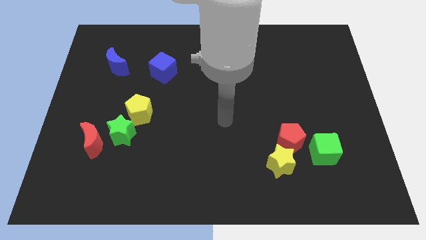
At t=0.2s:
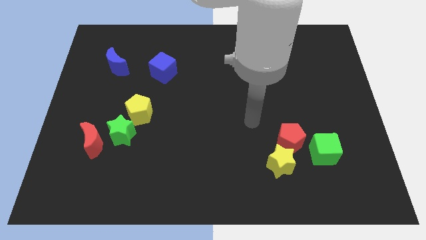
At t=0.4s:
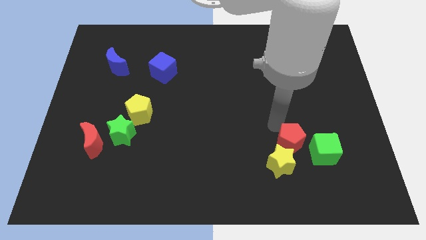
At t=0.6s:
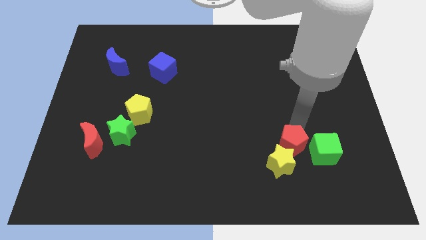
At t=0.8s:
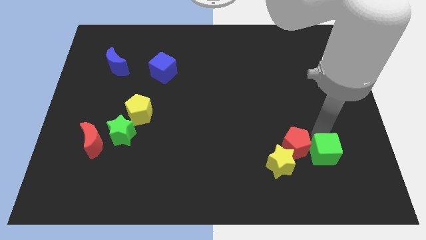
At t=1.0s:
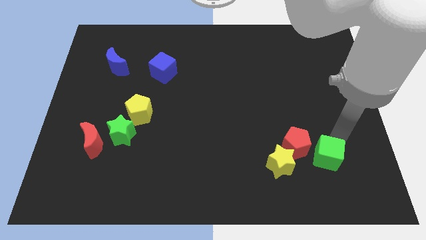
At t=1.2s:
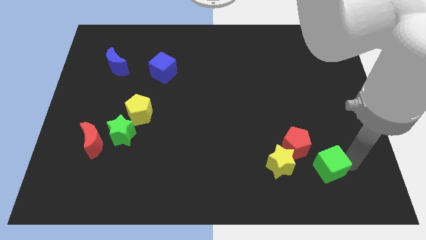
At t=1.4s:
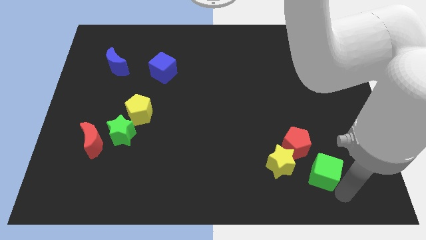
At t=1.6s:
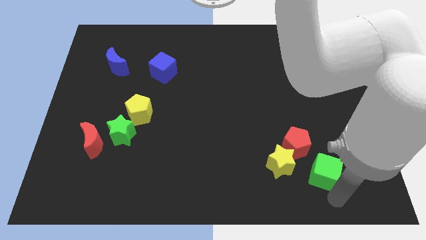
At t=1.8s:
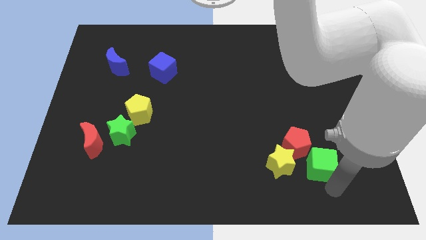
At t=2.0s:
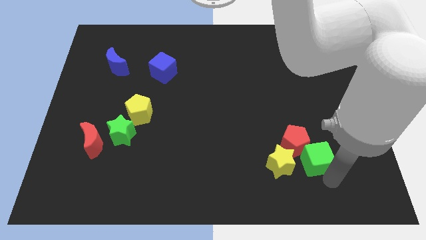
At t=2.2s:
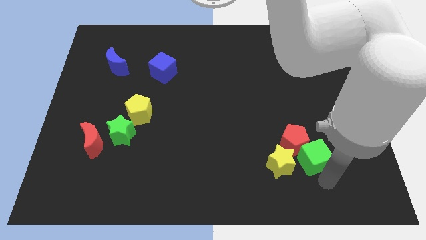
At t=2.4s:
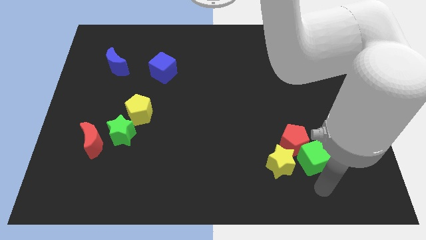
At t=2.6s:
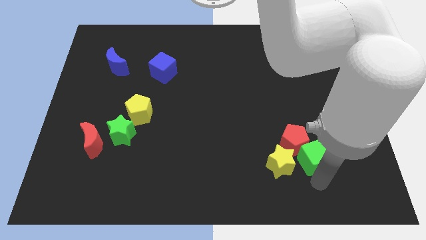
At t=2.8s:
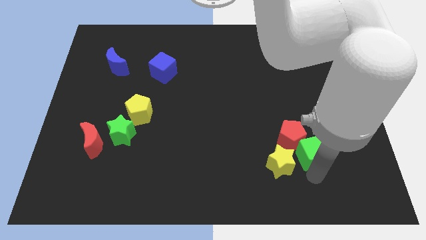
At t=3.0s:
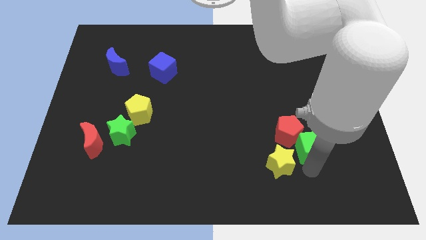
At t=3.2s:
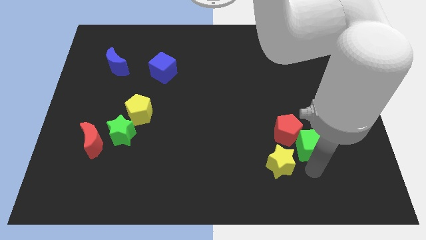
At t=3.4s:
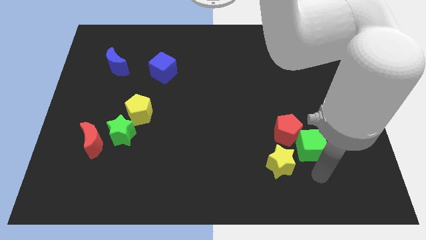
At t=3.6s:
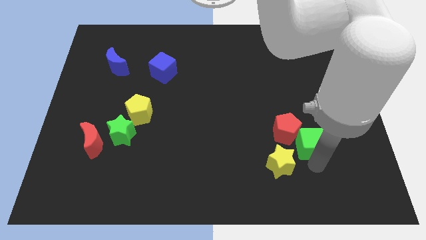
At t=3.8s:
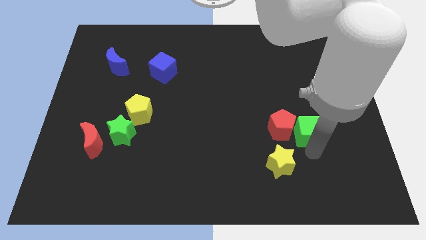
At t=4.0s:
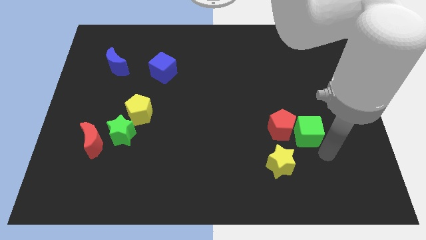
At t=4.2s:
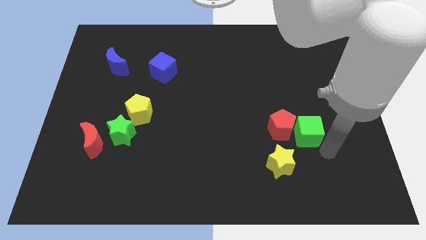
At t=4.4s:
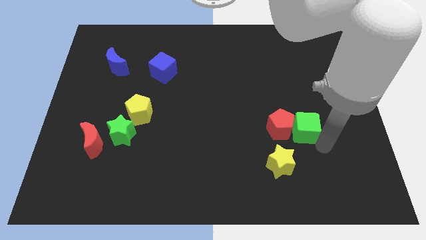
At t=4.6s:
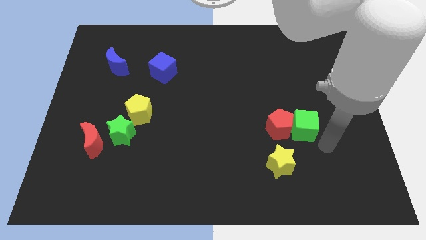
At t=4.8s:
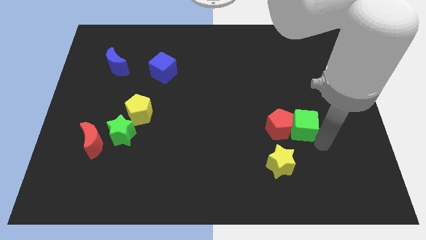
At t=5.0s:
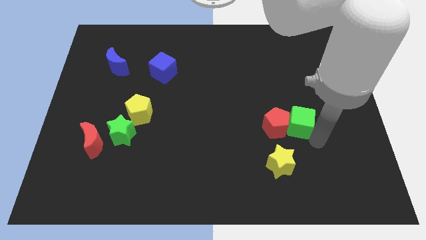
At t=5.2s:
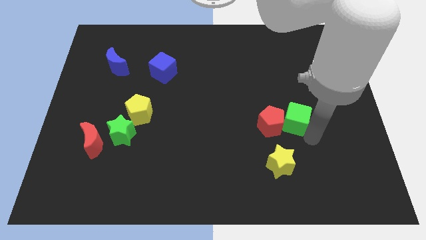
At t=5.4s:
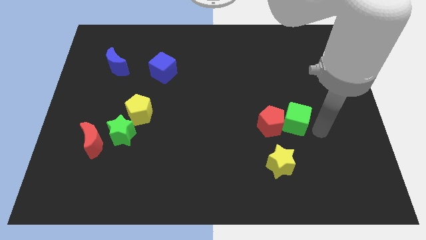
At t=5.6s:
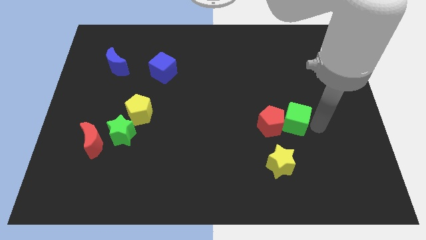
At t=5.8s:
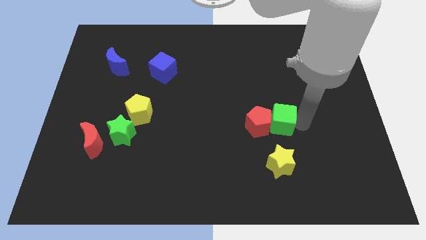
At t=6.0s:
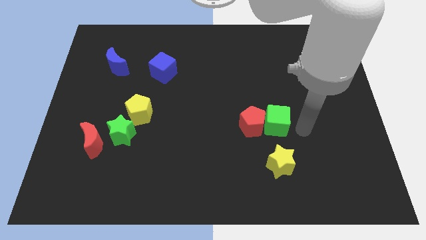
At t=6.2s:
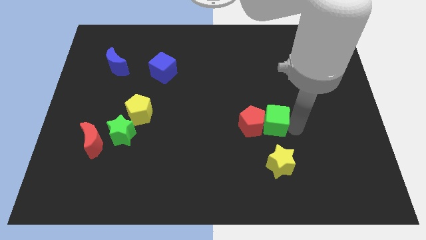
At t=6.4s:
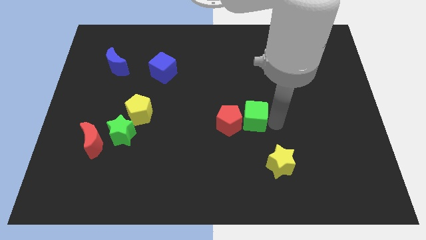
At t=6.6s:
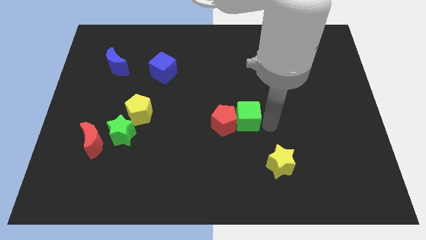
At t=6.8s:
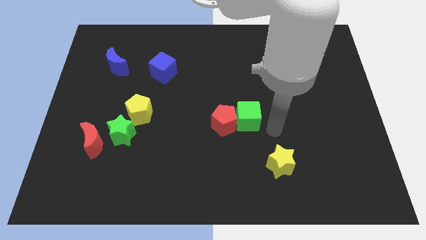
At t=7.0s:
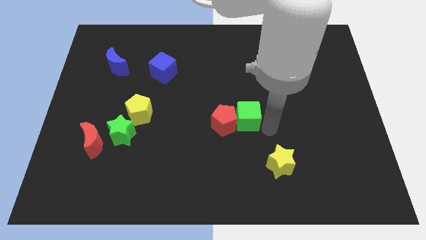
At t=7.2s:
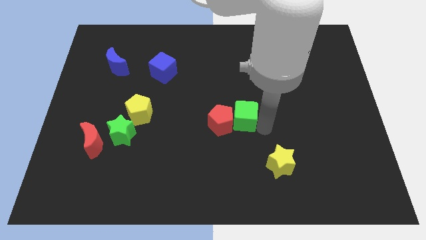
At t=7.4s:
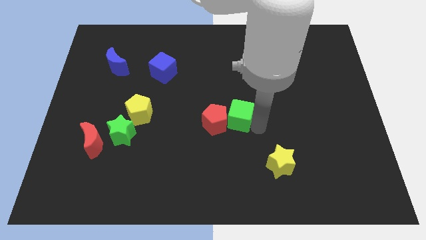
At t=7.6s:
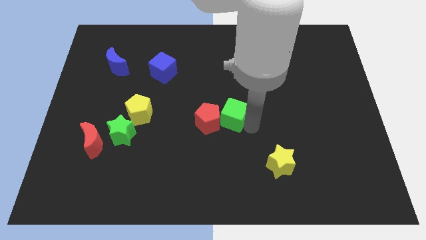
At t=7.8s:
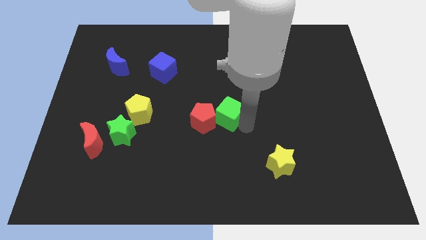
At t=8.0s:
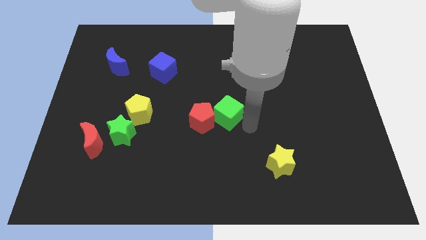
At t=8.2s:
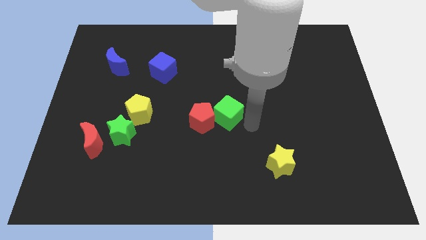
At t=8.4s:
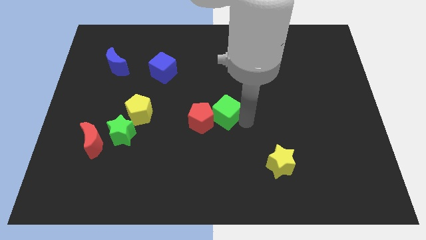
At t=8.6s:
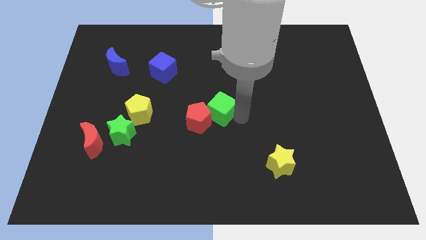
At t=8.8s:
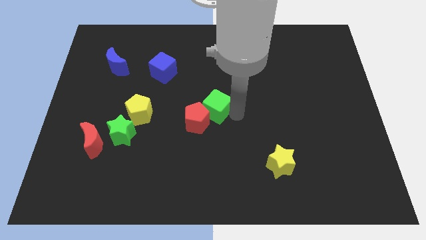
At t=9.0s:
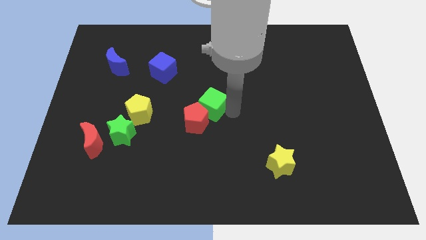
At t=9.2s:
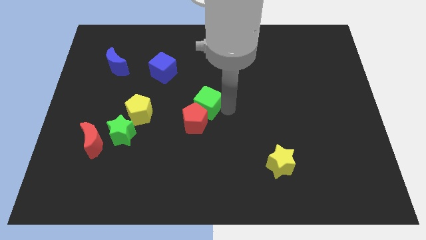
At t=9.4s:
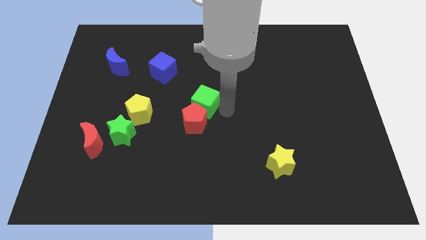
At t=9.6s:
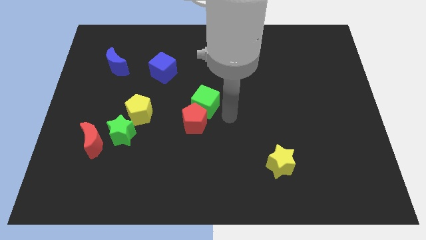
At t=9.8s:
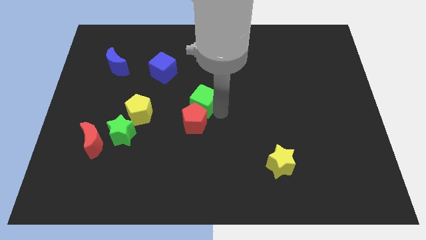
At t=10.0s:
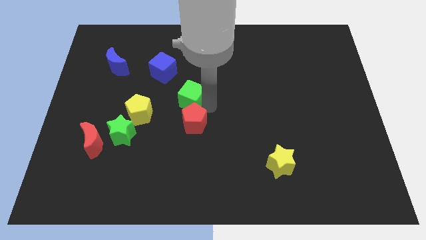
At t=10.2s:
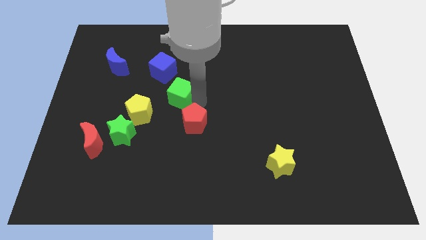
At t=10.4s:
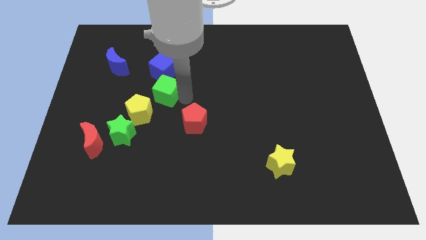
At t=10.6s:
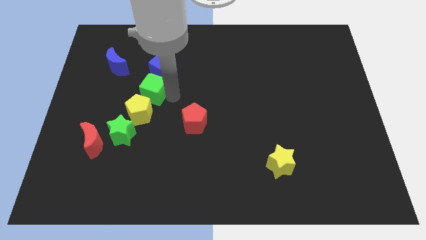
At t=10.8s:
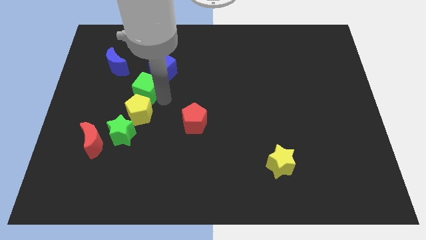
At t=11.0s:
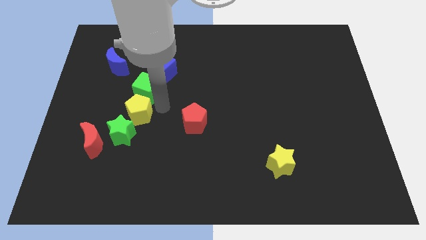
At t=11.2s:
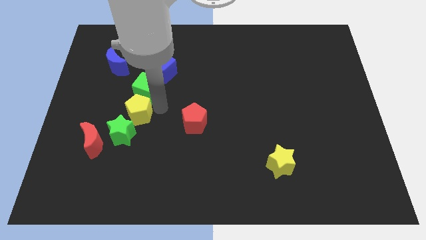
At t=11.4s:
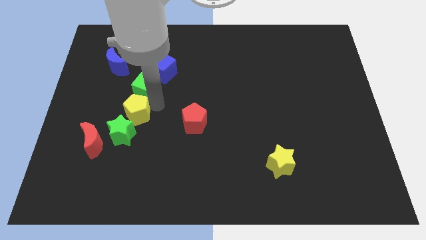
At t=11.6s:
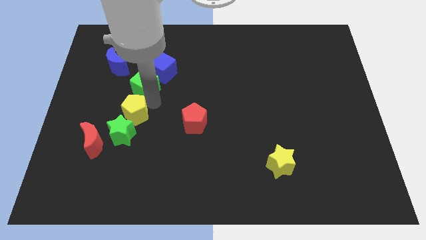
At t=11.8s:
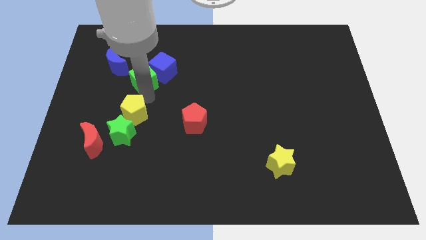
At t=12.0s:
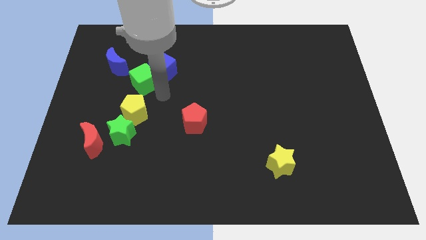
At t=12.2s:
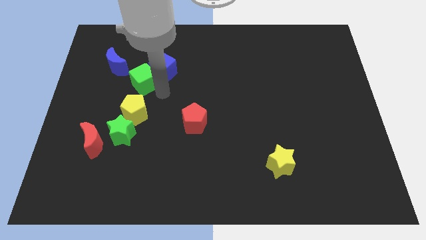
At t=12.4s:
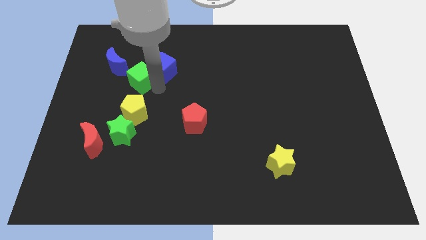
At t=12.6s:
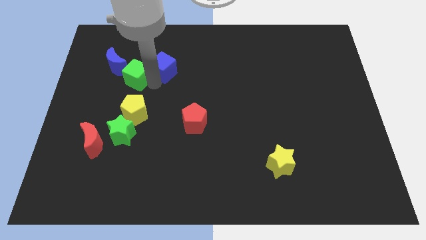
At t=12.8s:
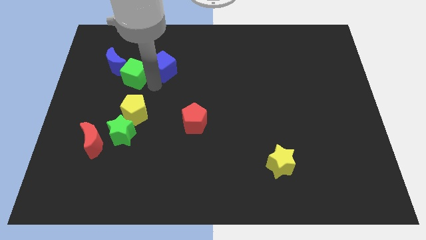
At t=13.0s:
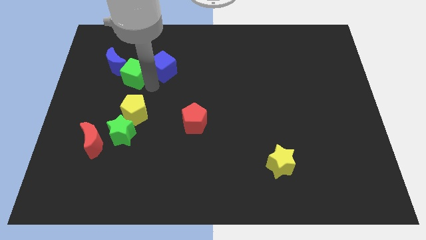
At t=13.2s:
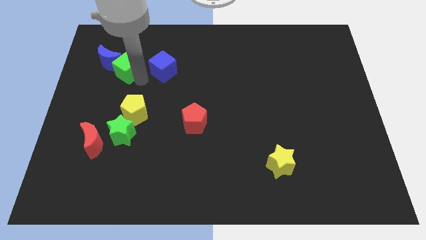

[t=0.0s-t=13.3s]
slide the green cube close to the blue moon
